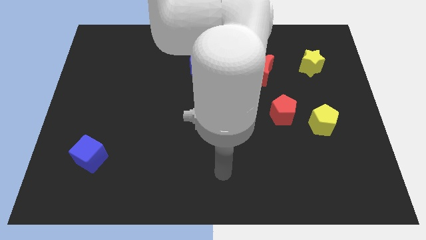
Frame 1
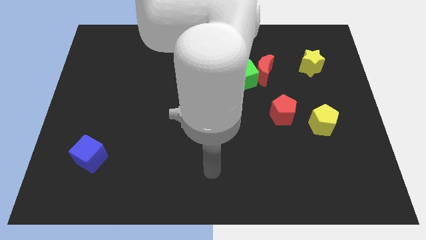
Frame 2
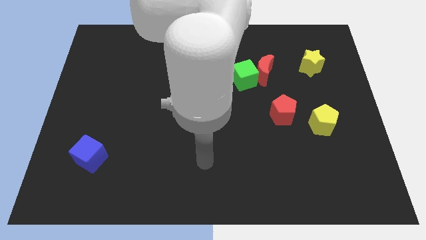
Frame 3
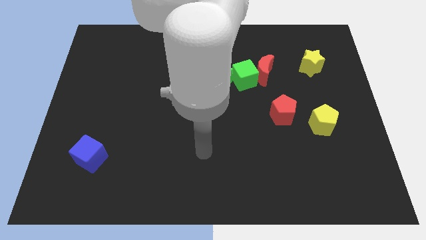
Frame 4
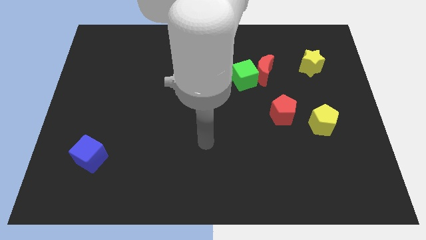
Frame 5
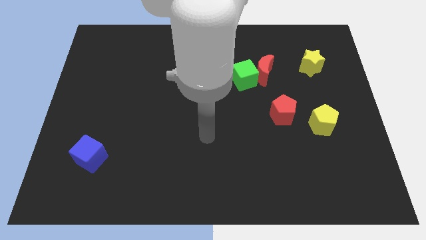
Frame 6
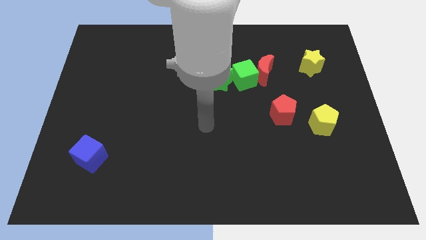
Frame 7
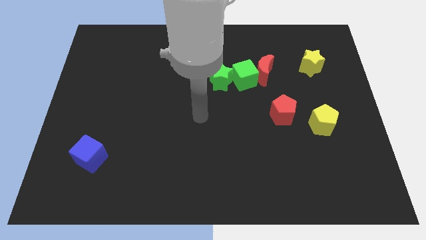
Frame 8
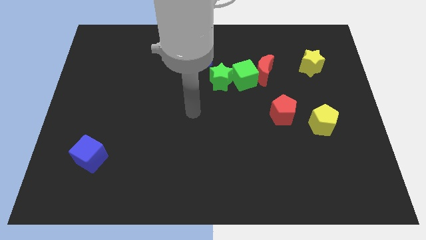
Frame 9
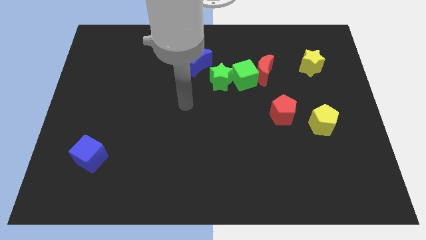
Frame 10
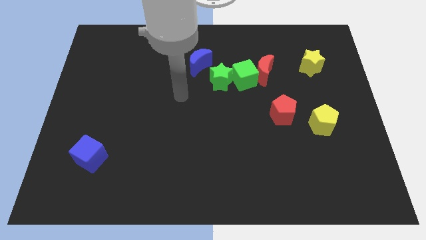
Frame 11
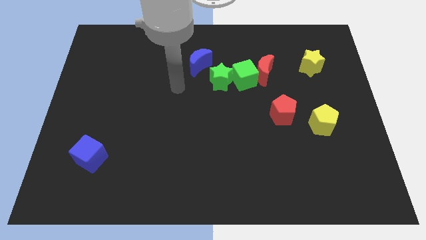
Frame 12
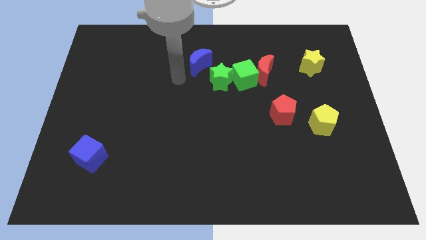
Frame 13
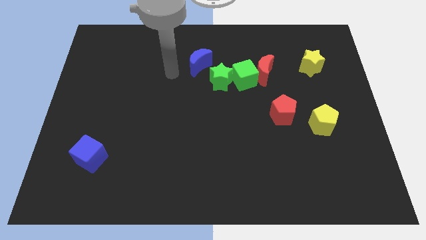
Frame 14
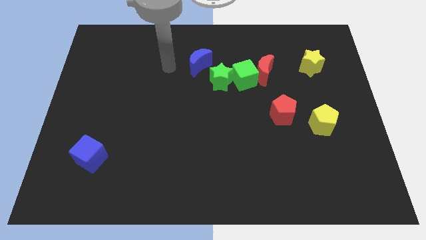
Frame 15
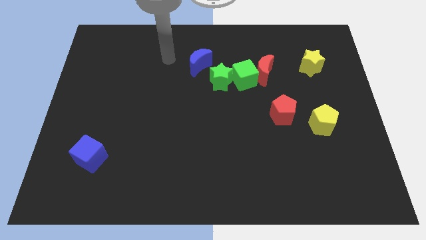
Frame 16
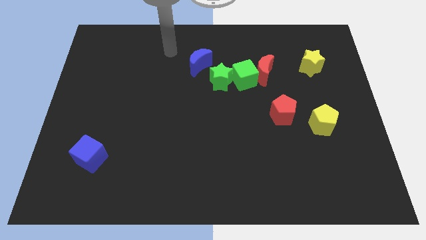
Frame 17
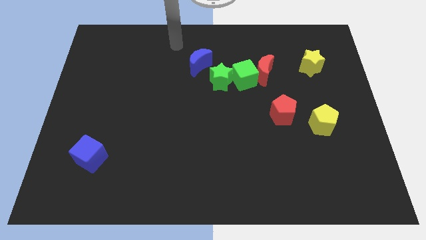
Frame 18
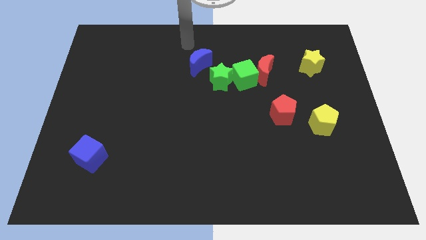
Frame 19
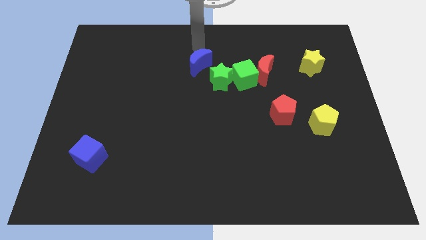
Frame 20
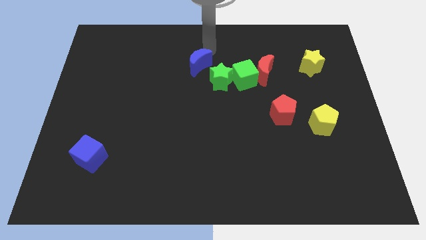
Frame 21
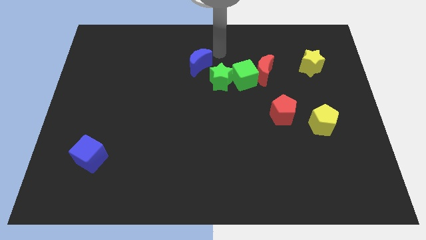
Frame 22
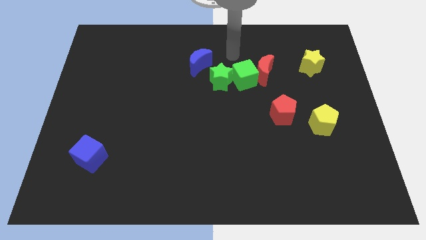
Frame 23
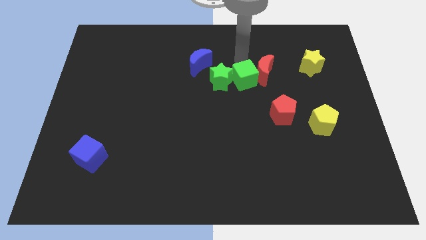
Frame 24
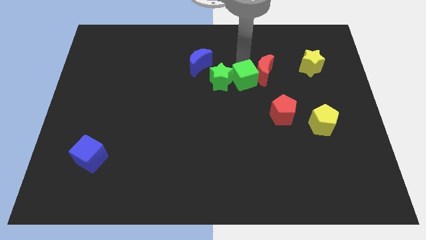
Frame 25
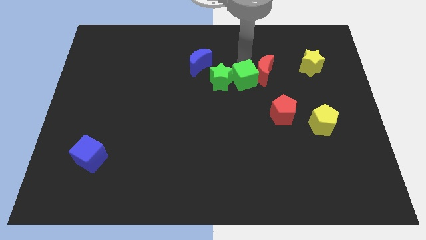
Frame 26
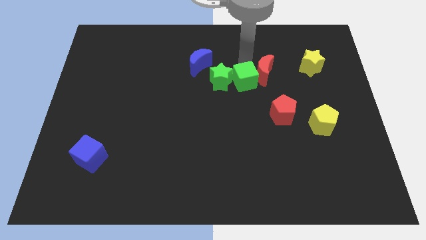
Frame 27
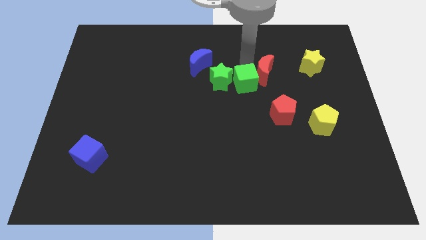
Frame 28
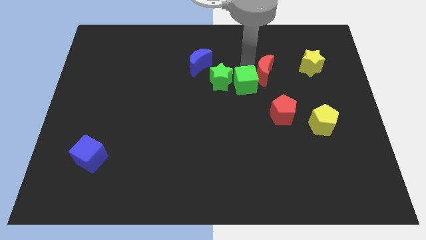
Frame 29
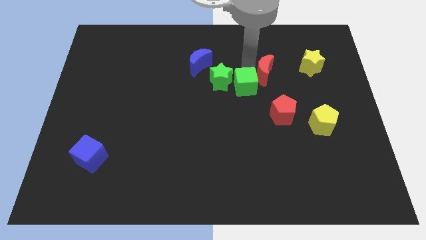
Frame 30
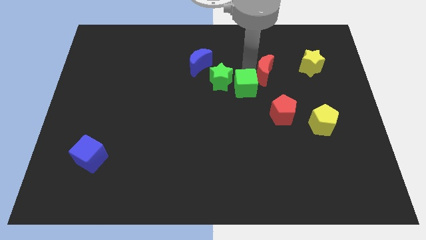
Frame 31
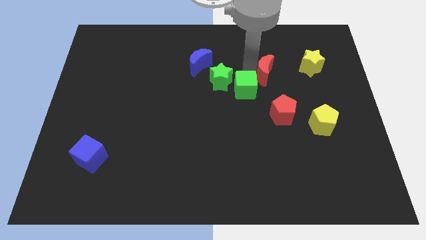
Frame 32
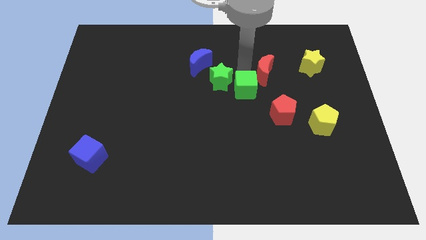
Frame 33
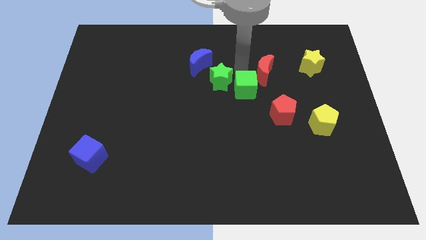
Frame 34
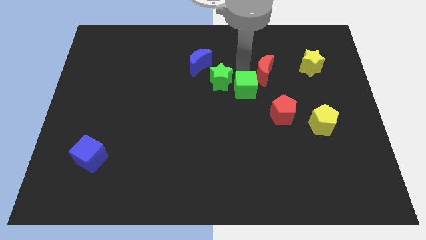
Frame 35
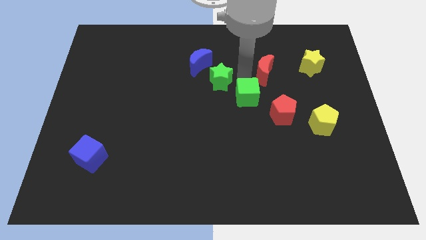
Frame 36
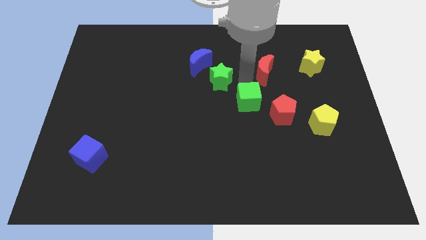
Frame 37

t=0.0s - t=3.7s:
move the green cube downwards a little

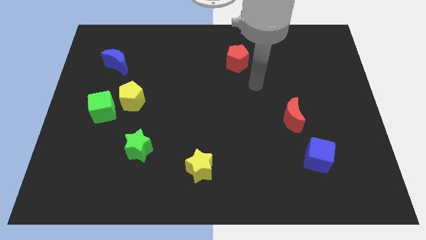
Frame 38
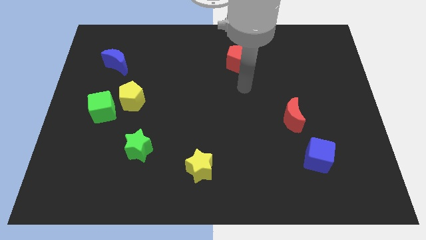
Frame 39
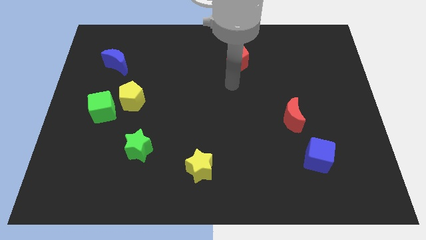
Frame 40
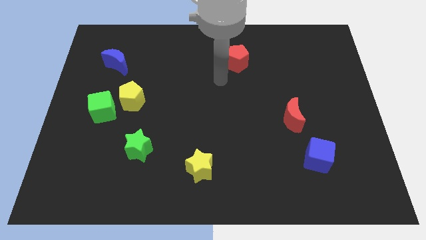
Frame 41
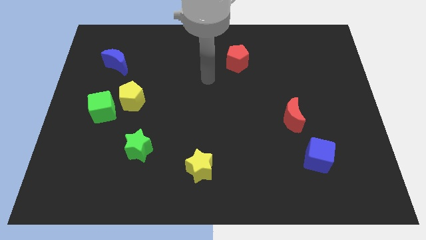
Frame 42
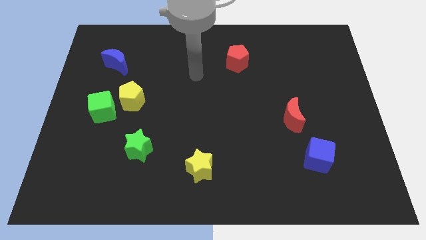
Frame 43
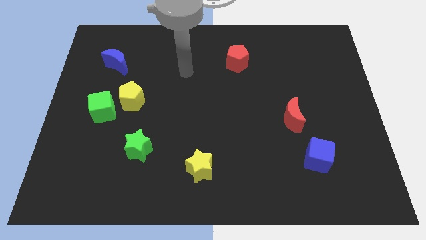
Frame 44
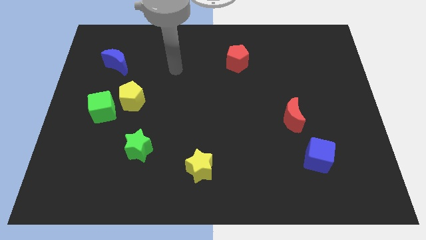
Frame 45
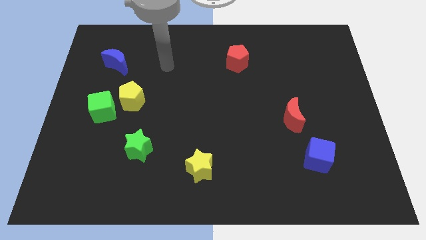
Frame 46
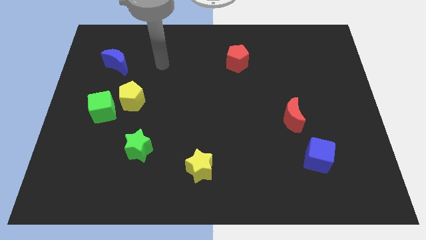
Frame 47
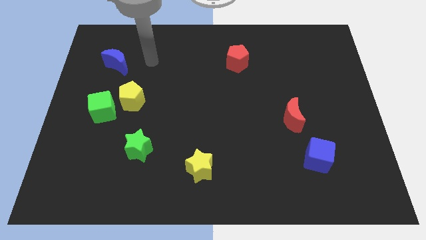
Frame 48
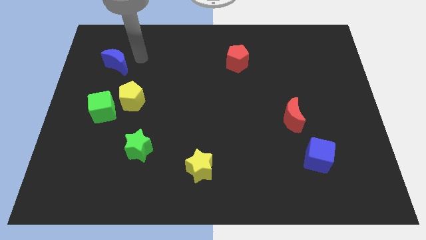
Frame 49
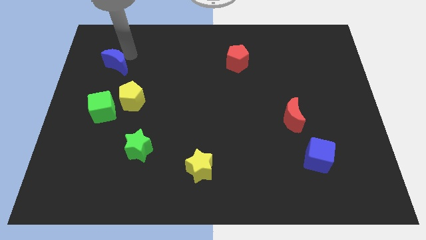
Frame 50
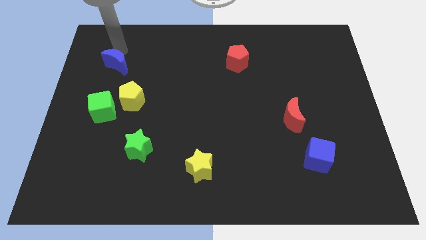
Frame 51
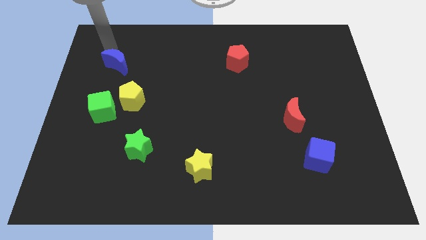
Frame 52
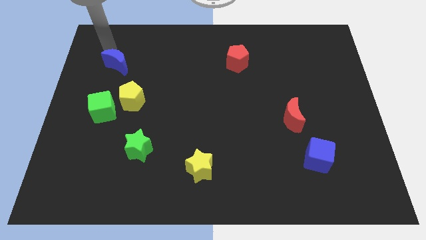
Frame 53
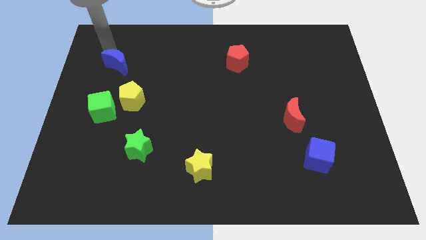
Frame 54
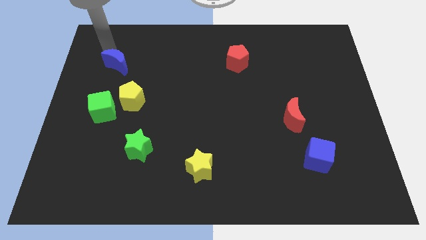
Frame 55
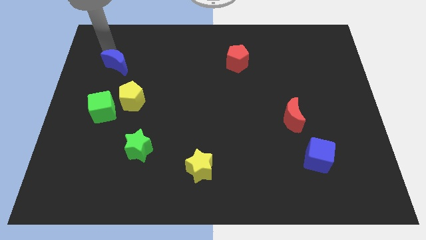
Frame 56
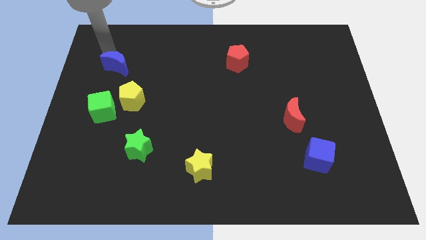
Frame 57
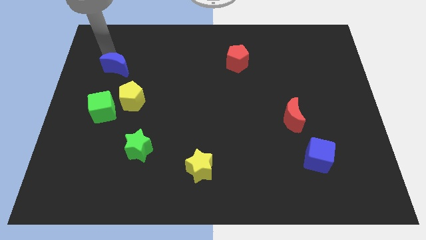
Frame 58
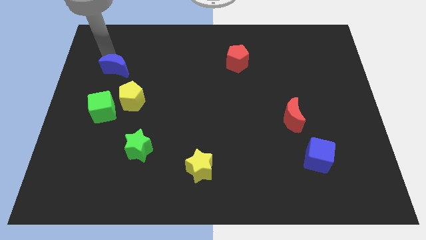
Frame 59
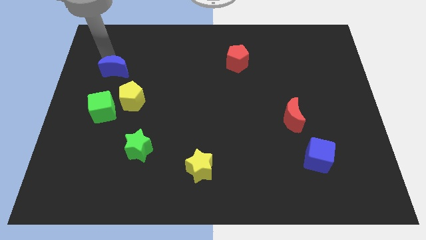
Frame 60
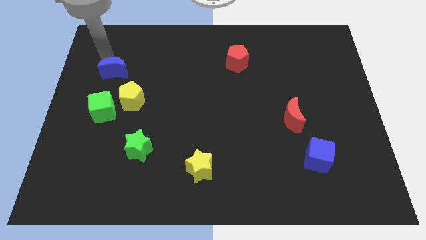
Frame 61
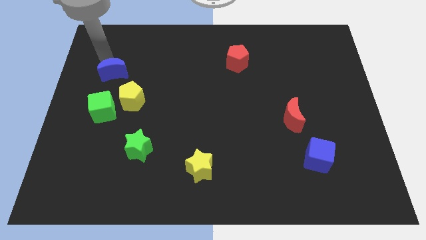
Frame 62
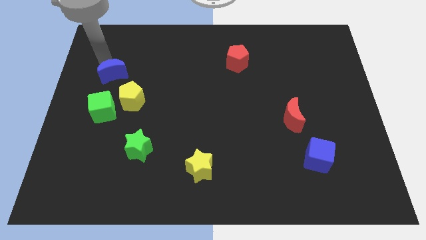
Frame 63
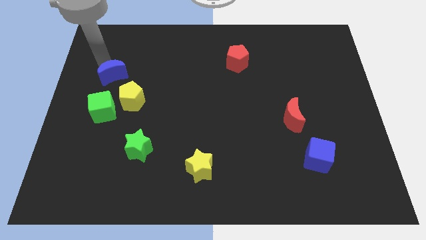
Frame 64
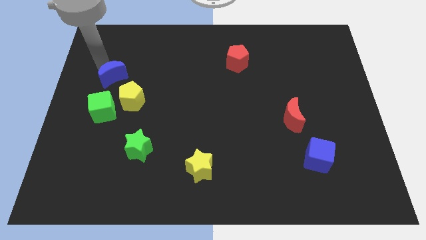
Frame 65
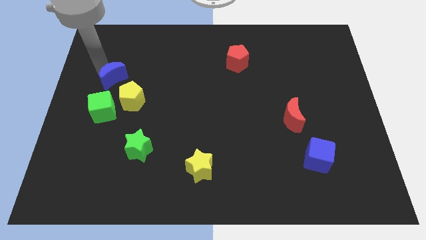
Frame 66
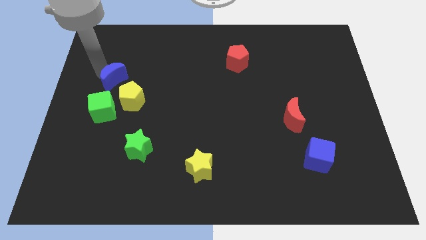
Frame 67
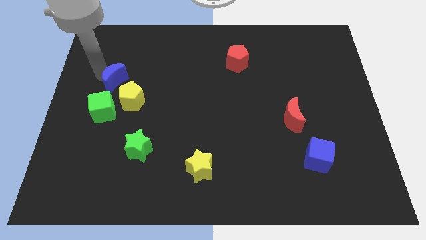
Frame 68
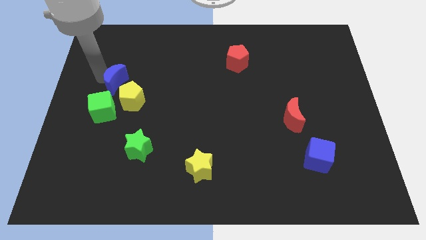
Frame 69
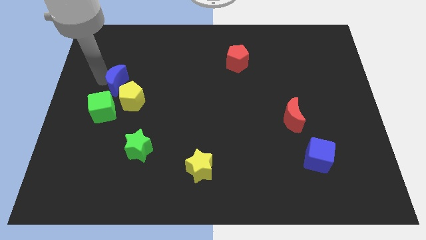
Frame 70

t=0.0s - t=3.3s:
slide the blue moon down somewhat

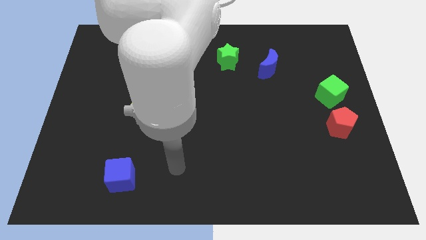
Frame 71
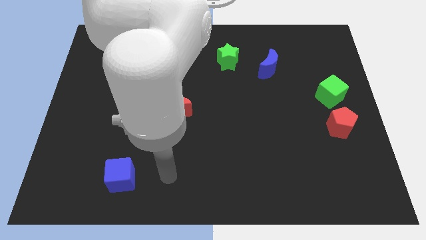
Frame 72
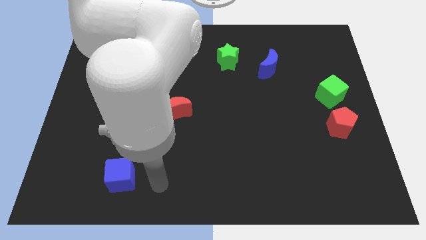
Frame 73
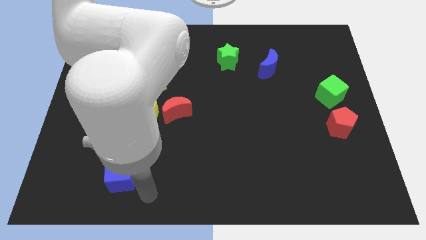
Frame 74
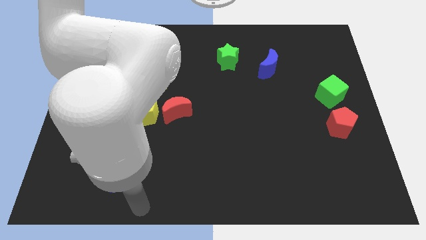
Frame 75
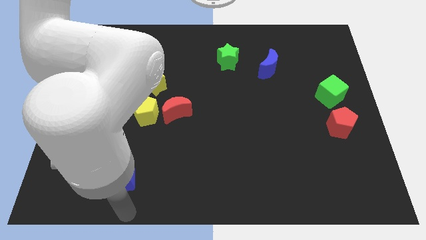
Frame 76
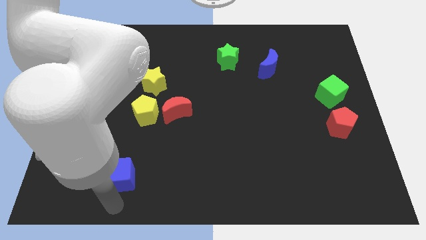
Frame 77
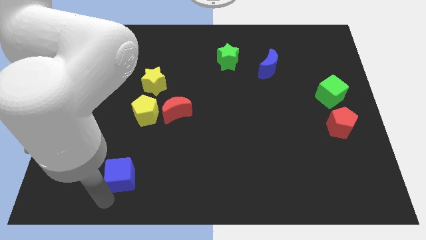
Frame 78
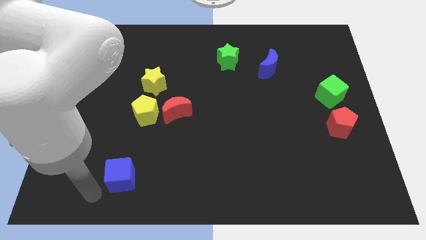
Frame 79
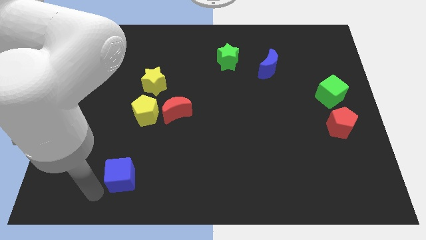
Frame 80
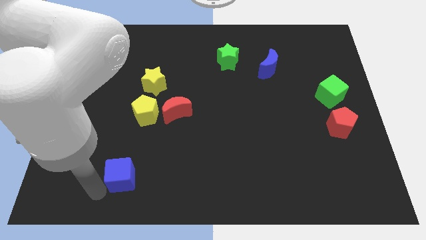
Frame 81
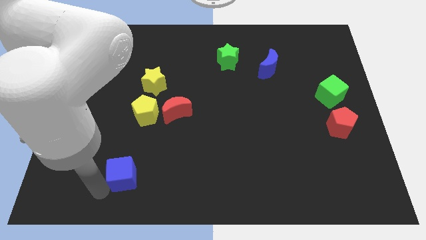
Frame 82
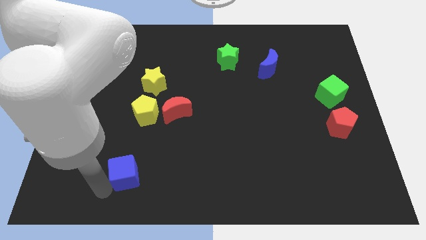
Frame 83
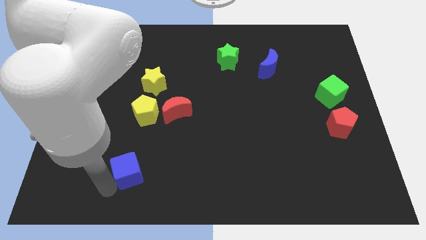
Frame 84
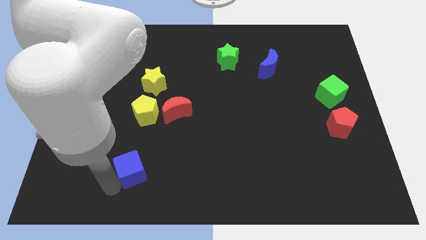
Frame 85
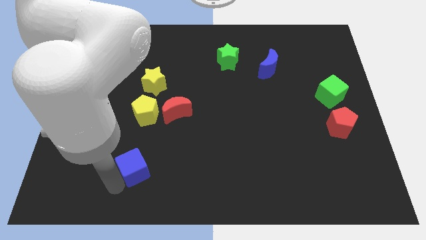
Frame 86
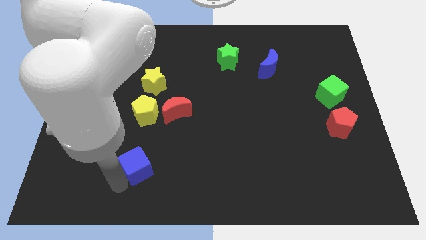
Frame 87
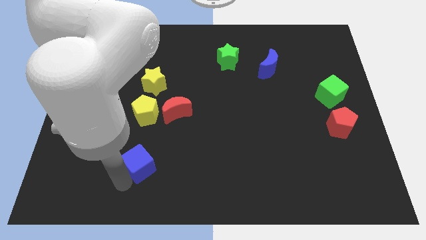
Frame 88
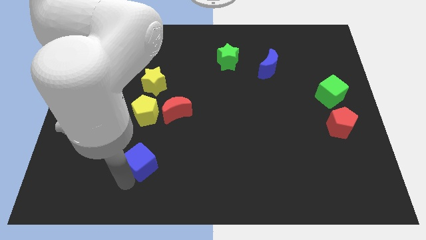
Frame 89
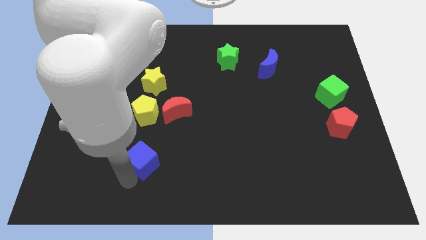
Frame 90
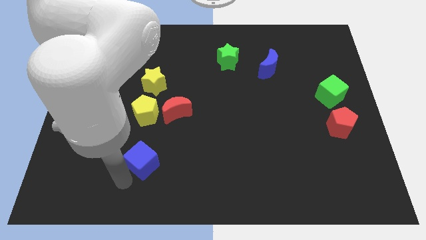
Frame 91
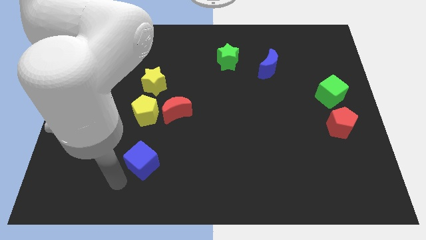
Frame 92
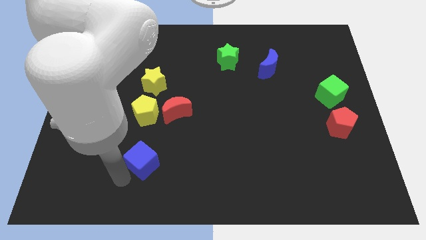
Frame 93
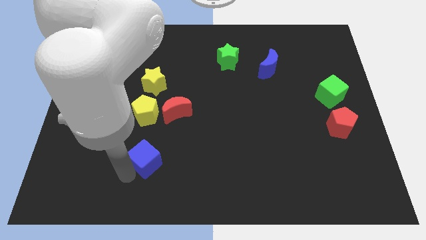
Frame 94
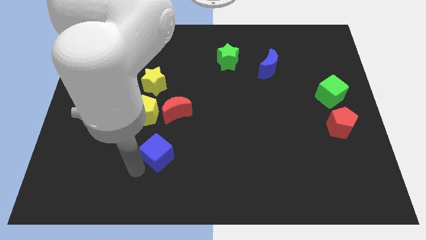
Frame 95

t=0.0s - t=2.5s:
slightly slide the blue cube diagonally up and right
